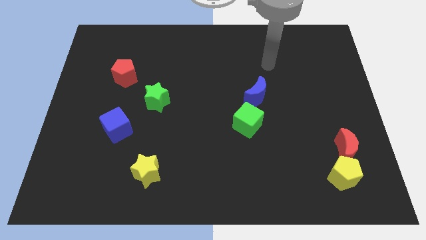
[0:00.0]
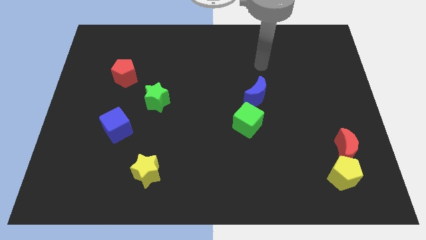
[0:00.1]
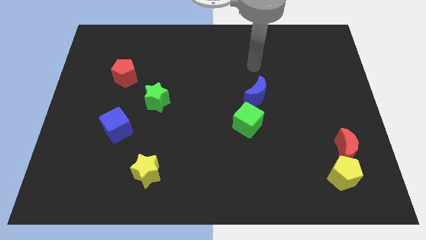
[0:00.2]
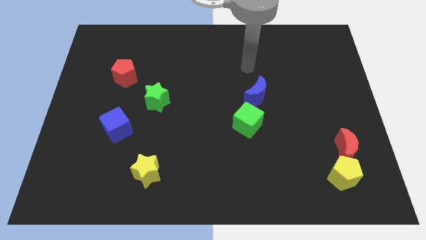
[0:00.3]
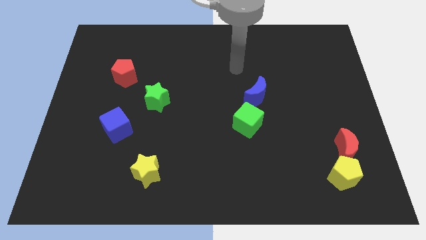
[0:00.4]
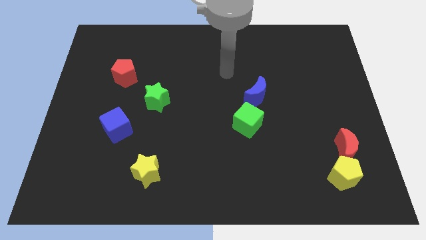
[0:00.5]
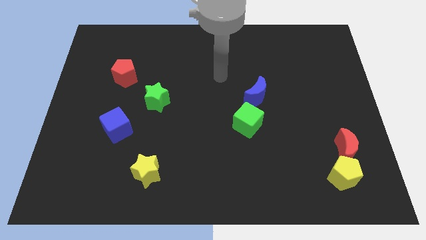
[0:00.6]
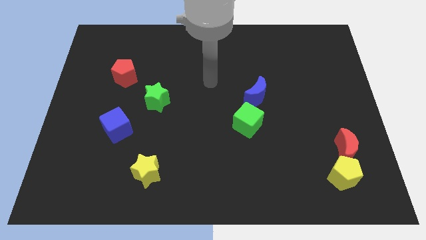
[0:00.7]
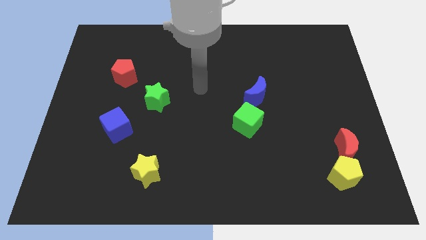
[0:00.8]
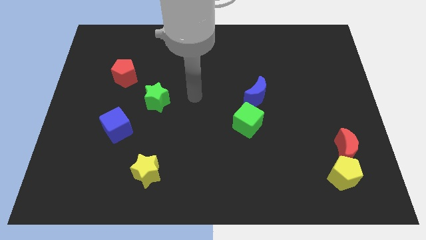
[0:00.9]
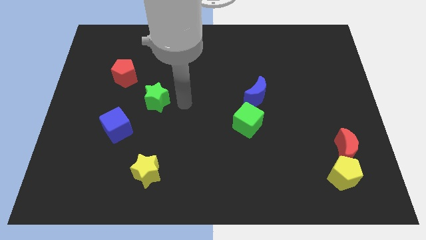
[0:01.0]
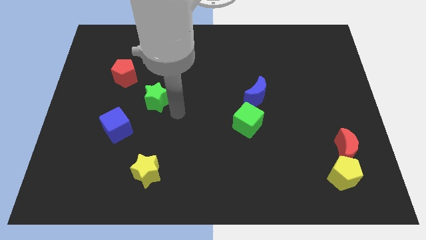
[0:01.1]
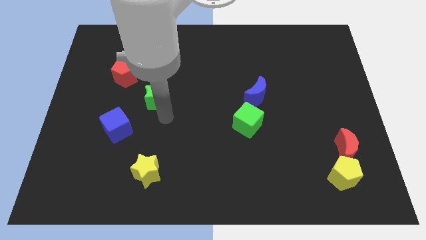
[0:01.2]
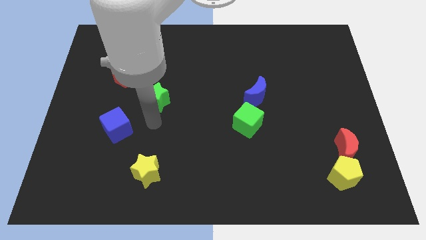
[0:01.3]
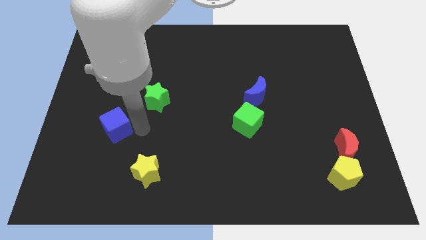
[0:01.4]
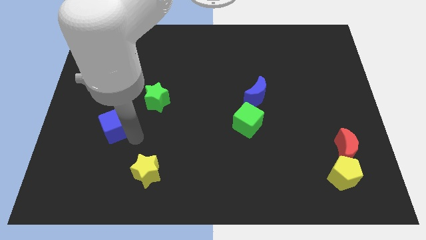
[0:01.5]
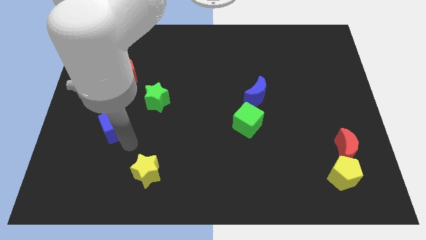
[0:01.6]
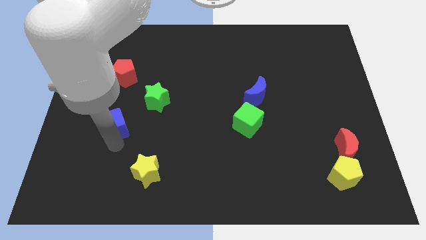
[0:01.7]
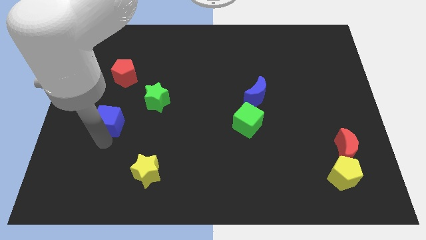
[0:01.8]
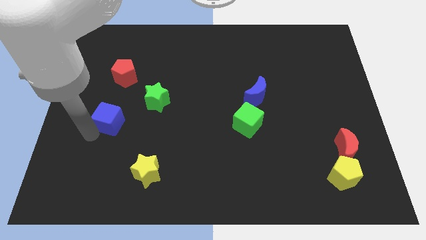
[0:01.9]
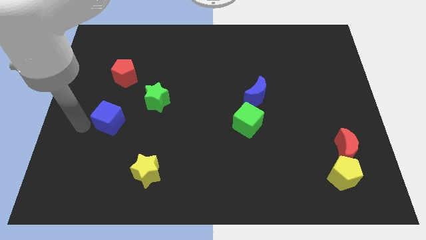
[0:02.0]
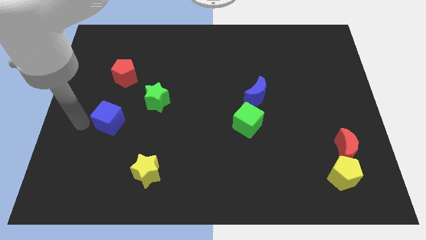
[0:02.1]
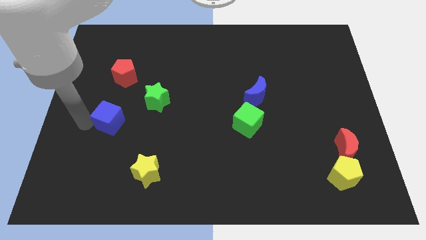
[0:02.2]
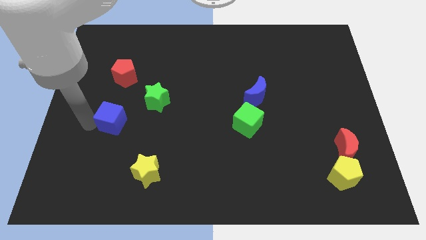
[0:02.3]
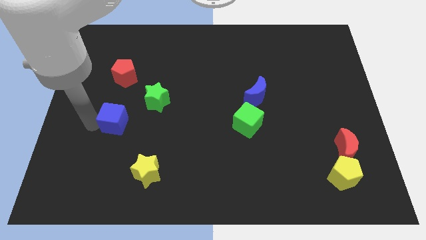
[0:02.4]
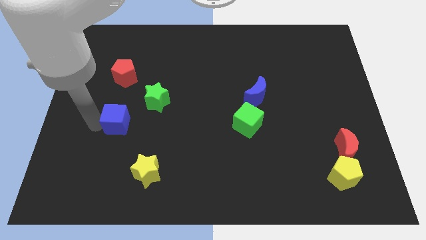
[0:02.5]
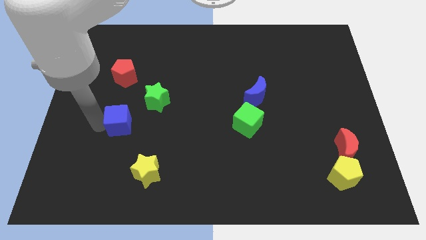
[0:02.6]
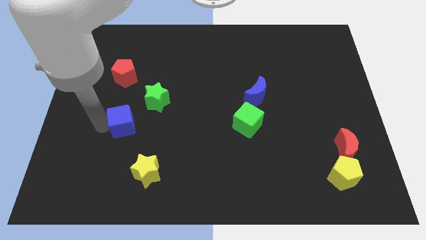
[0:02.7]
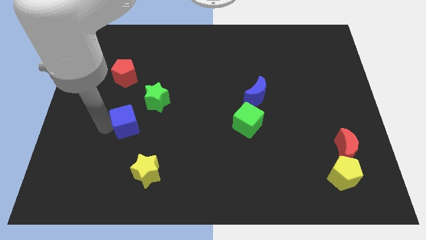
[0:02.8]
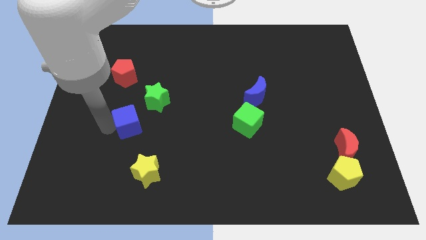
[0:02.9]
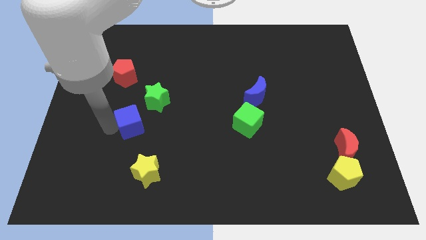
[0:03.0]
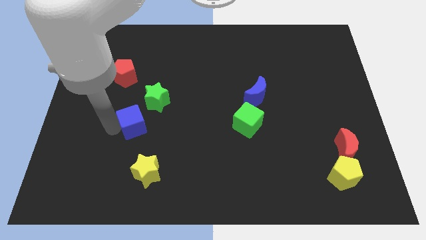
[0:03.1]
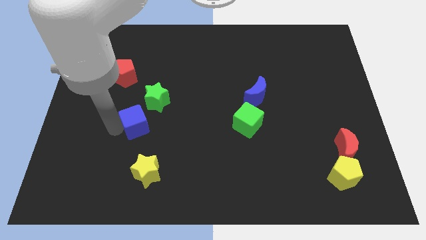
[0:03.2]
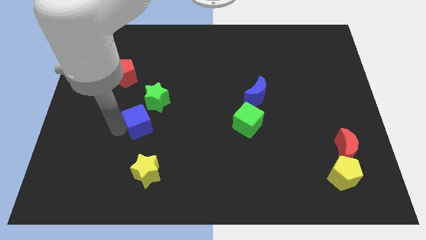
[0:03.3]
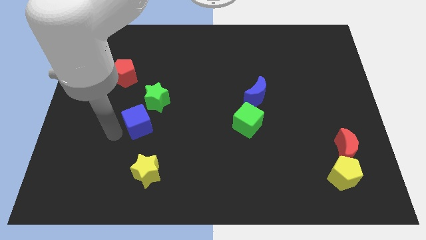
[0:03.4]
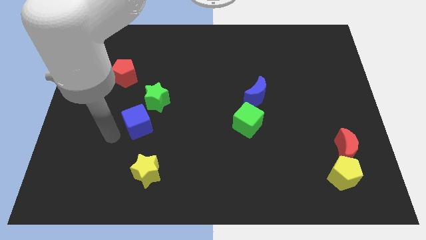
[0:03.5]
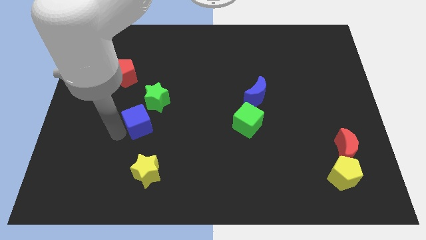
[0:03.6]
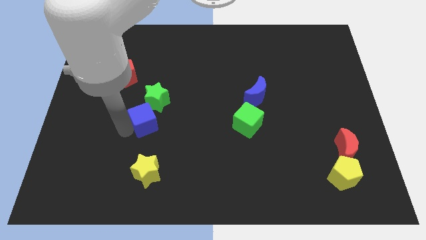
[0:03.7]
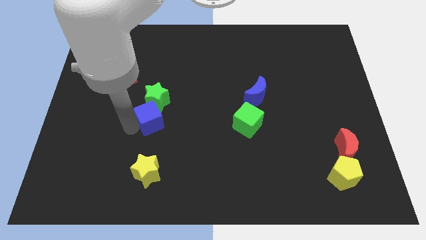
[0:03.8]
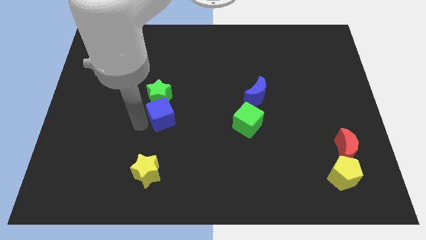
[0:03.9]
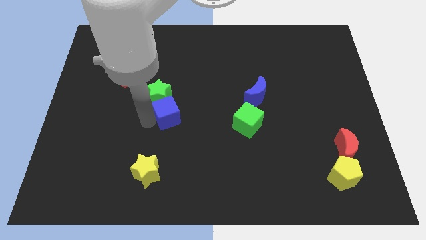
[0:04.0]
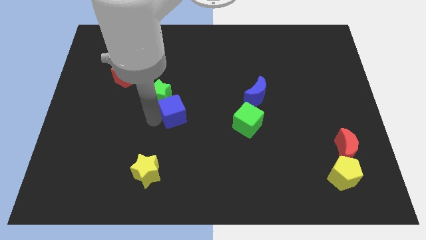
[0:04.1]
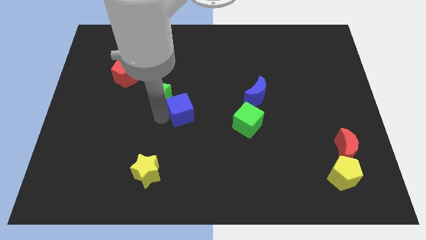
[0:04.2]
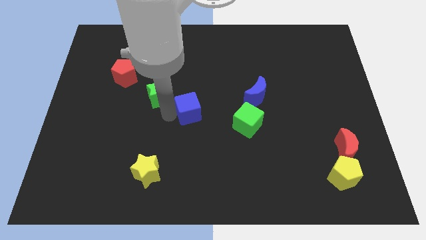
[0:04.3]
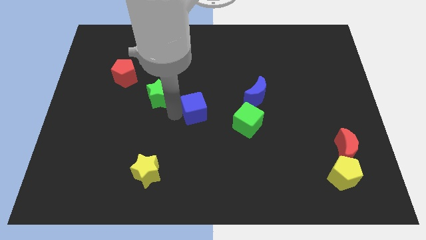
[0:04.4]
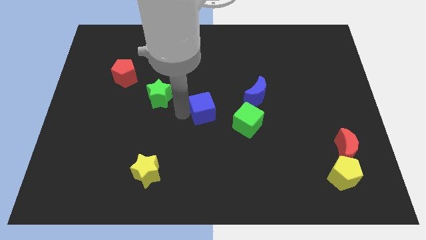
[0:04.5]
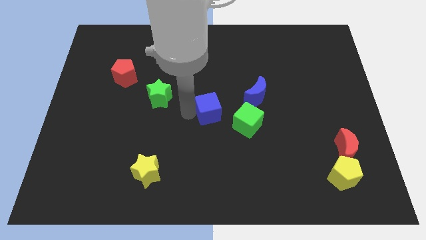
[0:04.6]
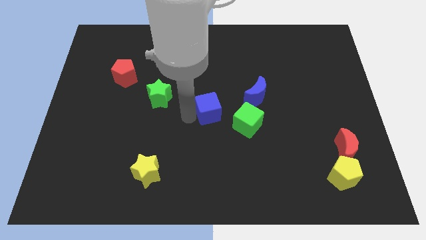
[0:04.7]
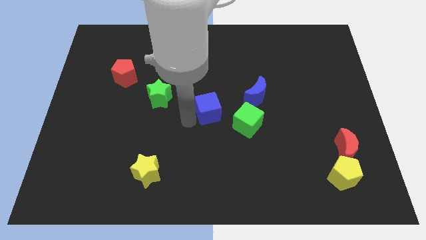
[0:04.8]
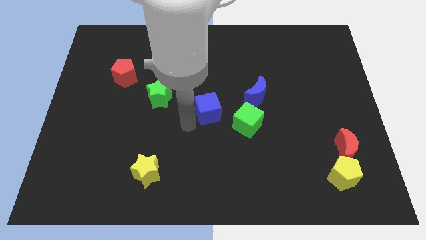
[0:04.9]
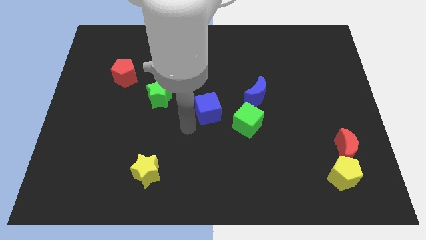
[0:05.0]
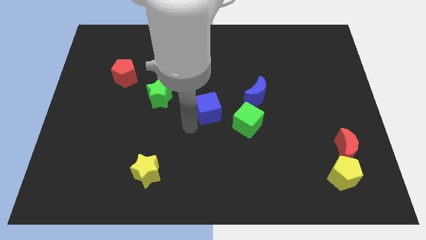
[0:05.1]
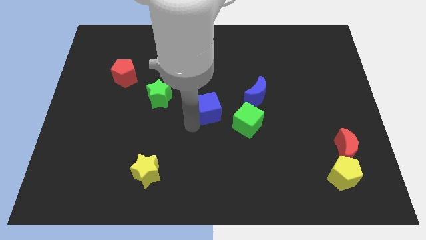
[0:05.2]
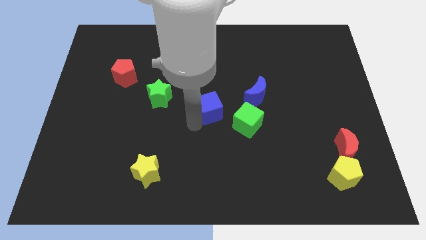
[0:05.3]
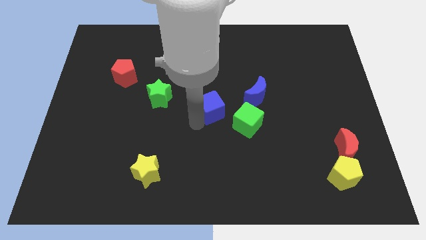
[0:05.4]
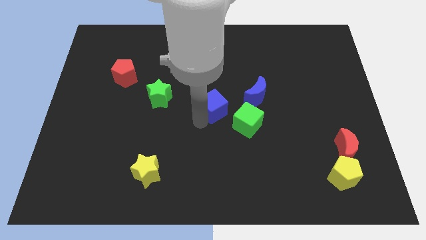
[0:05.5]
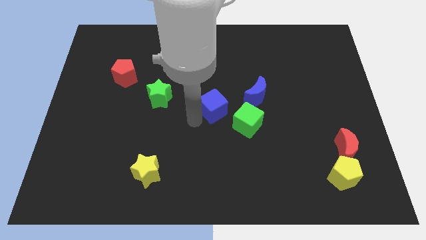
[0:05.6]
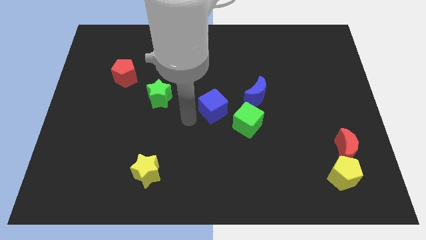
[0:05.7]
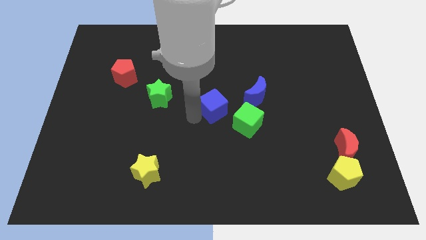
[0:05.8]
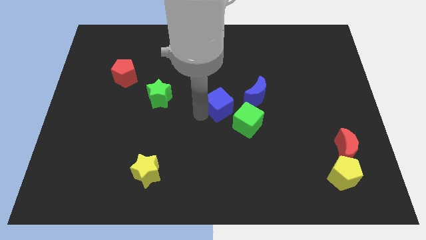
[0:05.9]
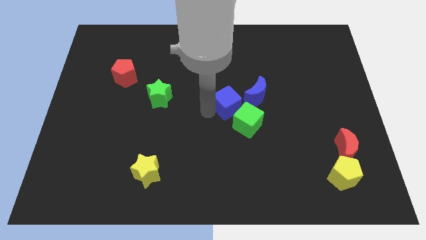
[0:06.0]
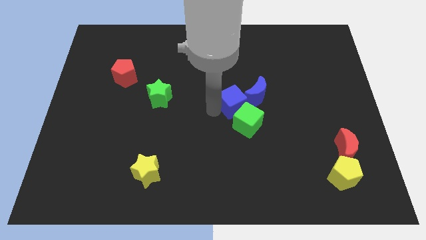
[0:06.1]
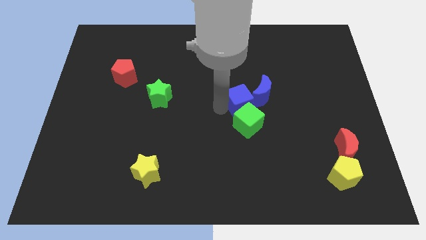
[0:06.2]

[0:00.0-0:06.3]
put the blue cube to the blue moon
